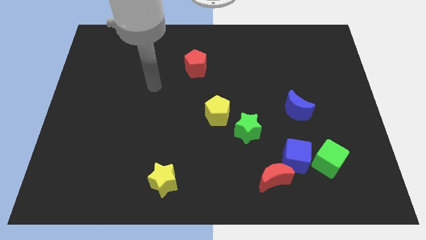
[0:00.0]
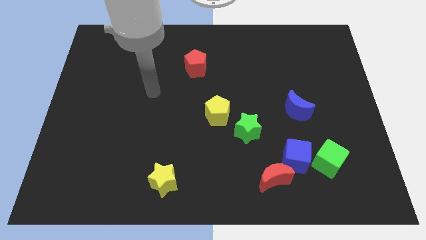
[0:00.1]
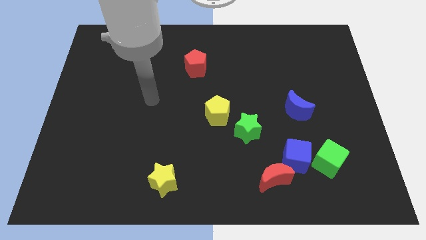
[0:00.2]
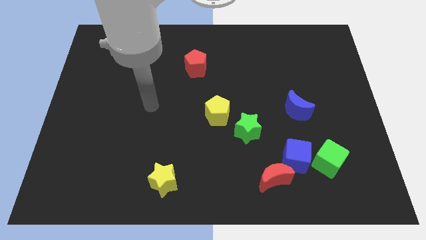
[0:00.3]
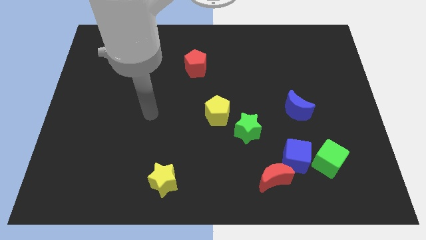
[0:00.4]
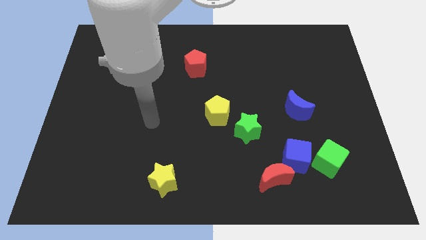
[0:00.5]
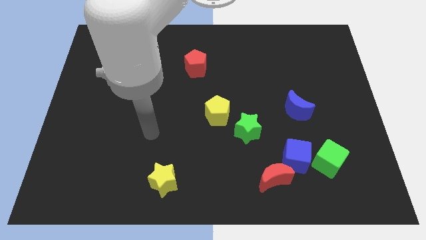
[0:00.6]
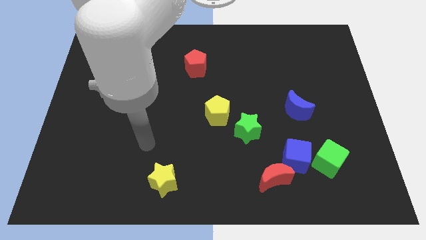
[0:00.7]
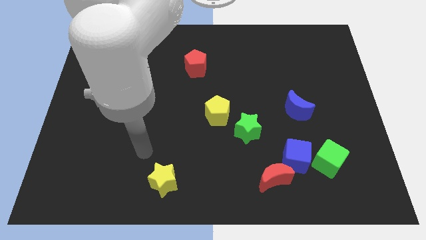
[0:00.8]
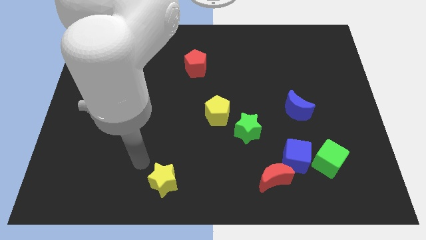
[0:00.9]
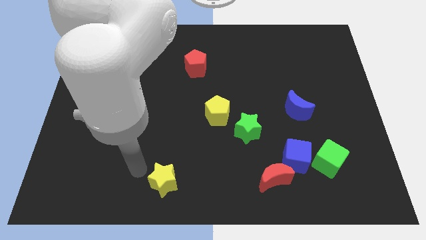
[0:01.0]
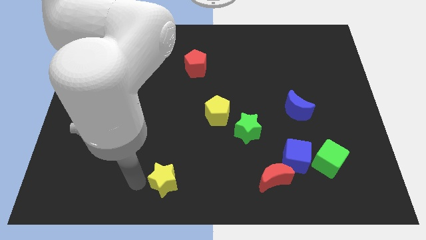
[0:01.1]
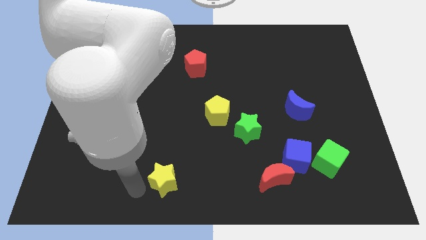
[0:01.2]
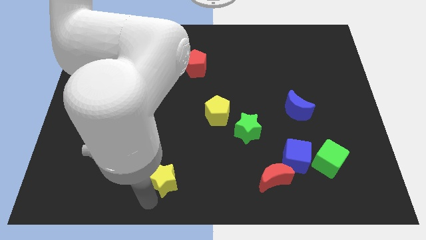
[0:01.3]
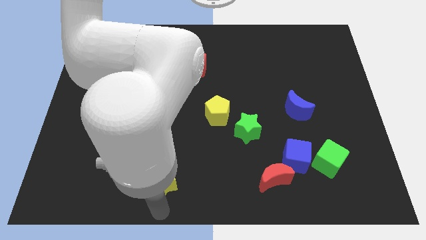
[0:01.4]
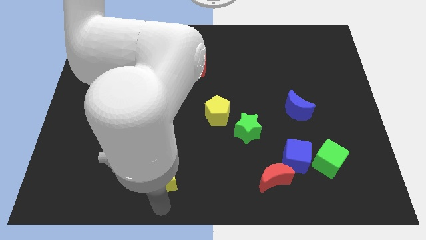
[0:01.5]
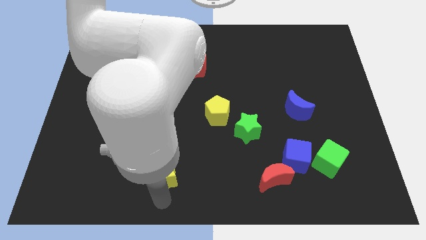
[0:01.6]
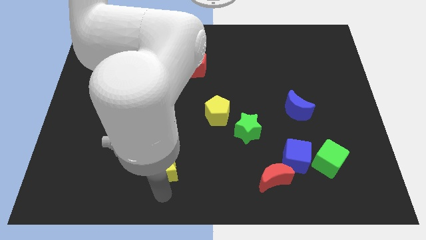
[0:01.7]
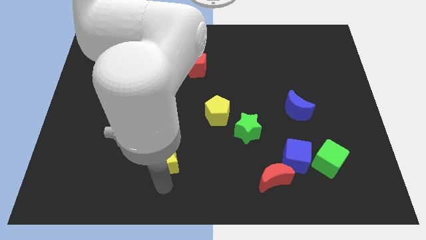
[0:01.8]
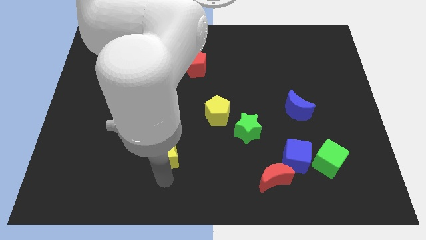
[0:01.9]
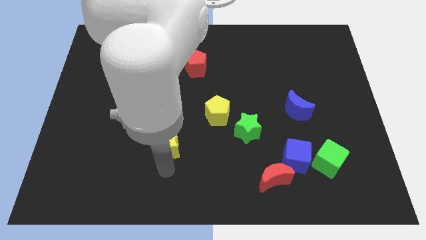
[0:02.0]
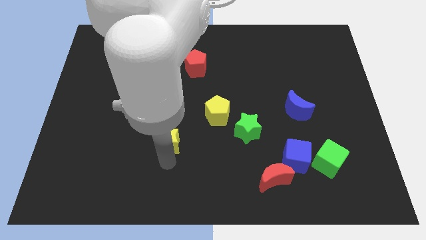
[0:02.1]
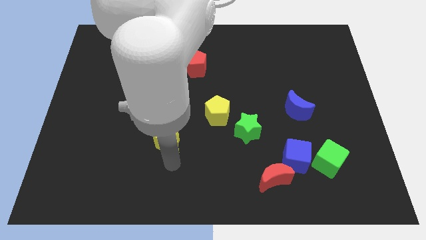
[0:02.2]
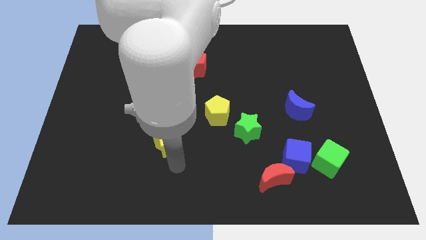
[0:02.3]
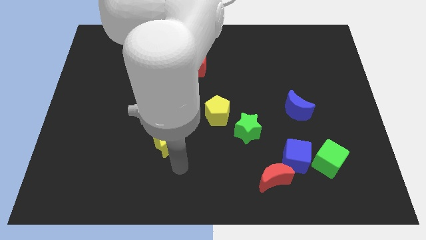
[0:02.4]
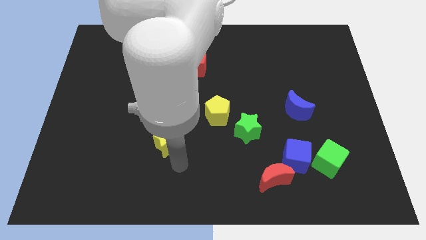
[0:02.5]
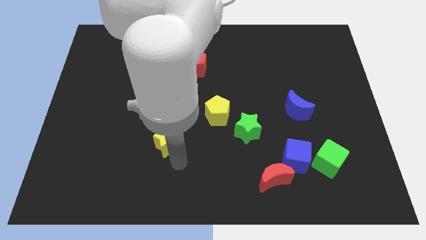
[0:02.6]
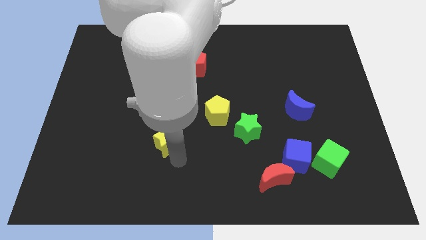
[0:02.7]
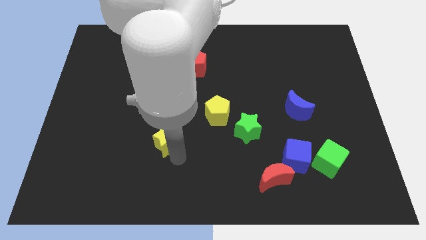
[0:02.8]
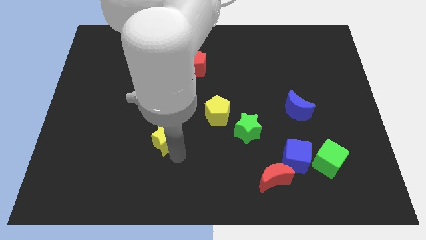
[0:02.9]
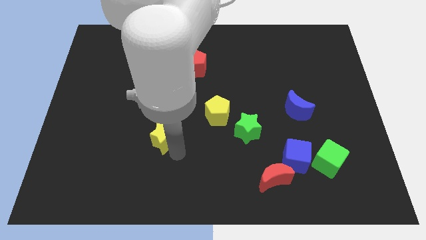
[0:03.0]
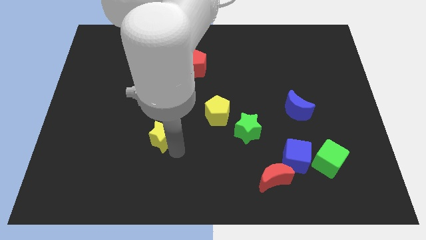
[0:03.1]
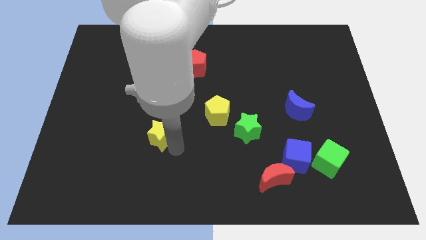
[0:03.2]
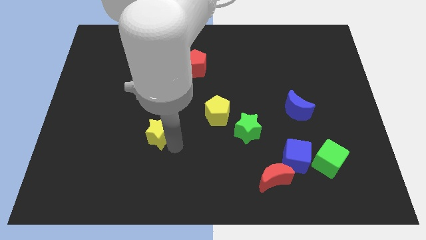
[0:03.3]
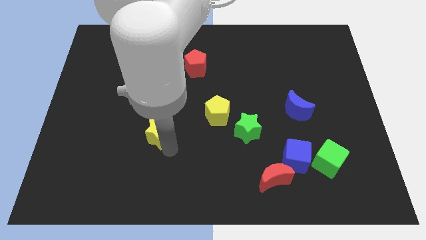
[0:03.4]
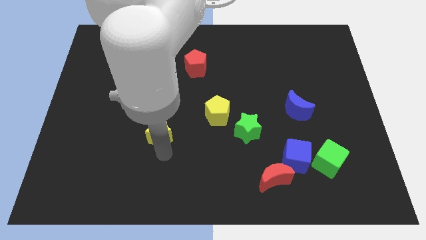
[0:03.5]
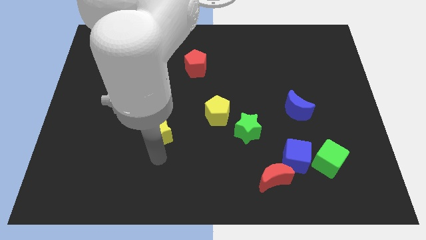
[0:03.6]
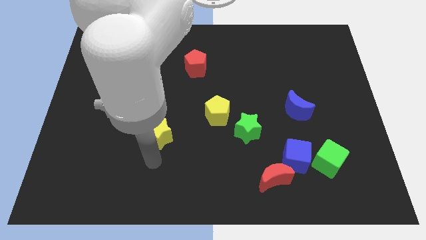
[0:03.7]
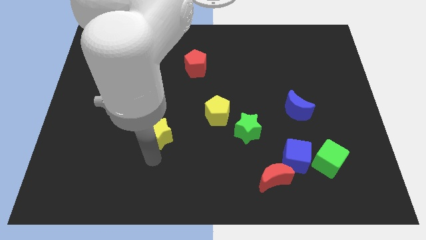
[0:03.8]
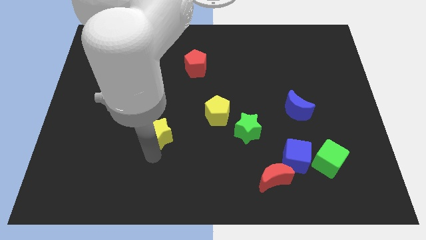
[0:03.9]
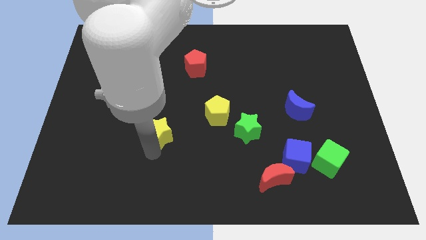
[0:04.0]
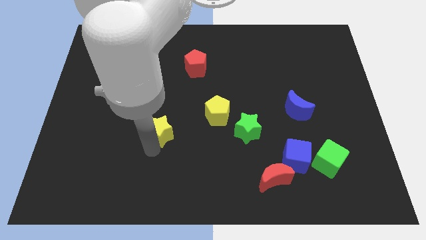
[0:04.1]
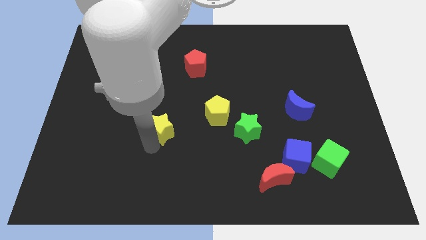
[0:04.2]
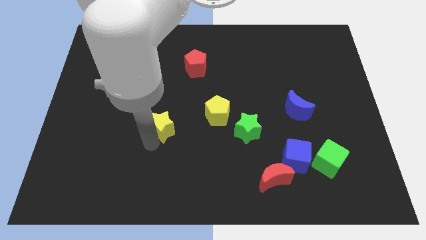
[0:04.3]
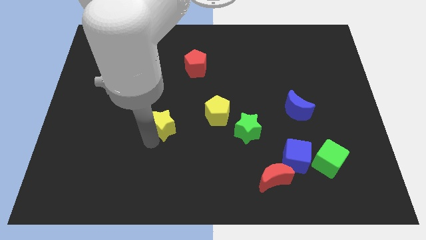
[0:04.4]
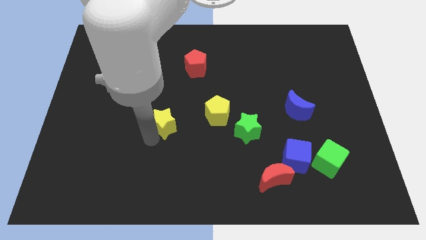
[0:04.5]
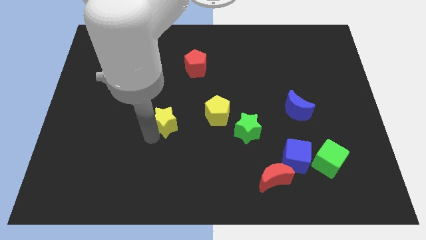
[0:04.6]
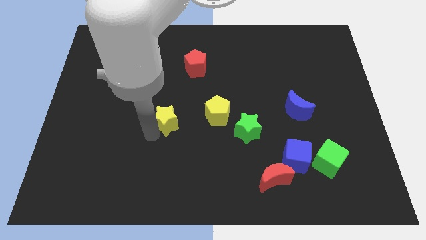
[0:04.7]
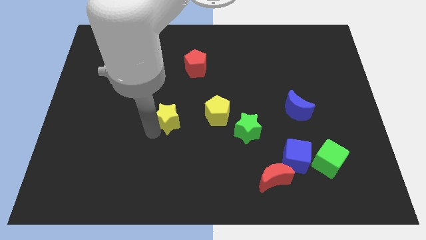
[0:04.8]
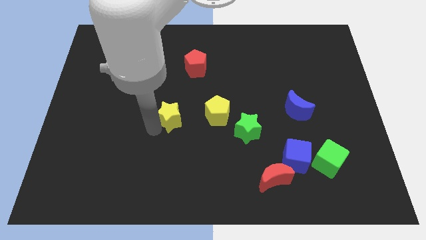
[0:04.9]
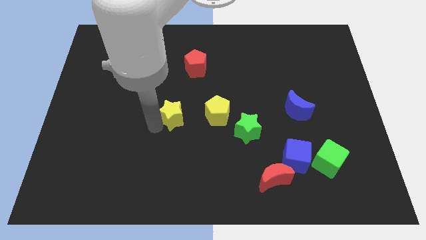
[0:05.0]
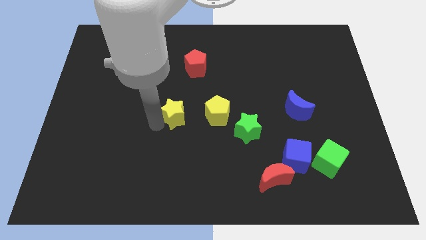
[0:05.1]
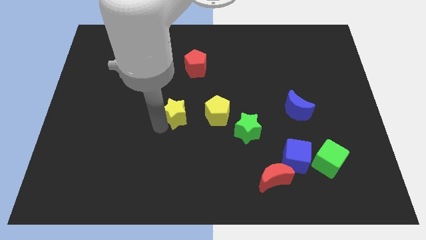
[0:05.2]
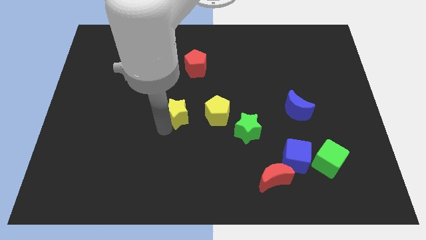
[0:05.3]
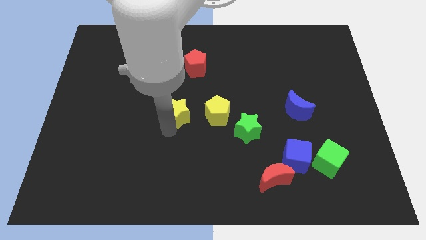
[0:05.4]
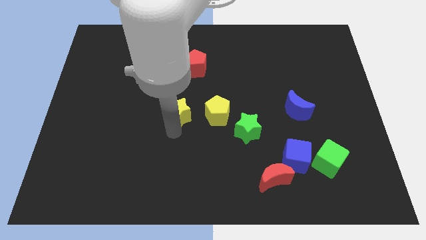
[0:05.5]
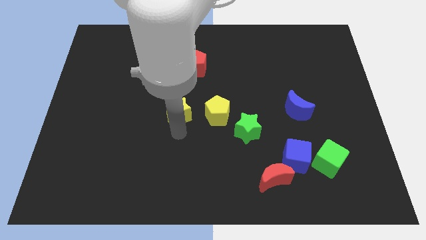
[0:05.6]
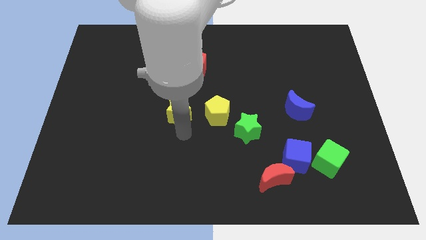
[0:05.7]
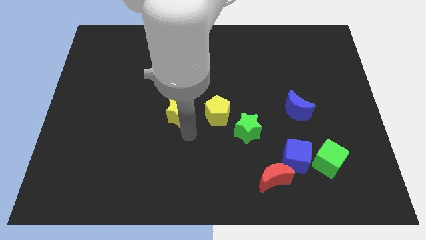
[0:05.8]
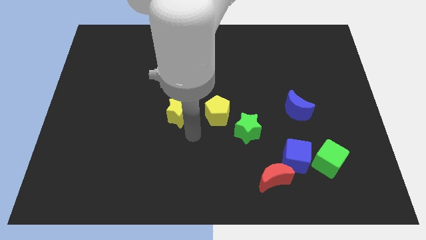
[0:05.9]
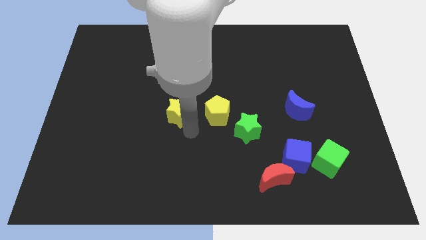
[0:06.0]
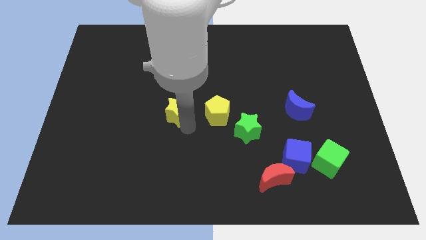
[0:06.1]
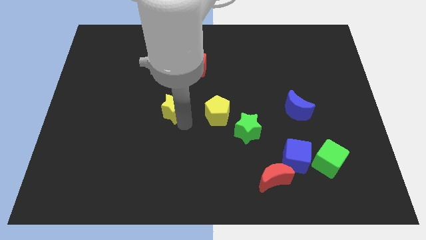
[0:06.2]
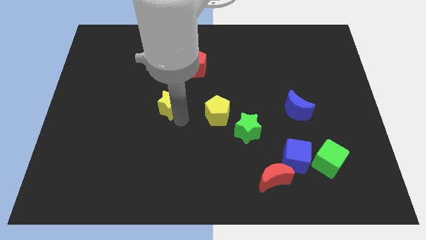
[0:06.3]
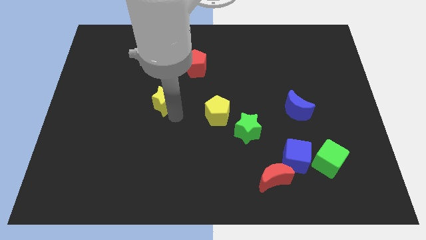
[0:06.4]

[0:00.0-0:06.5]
slide the yellow star upwards

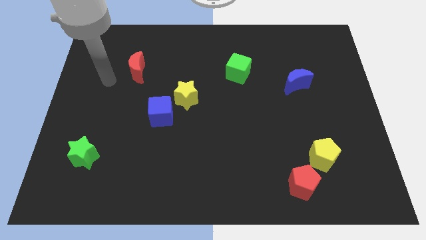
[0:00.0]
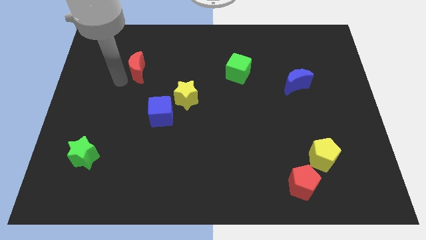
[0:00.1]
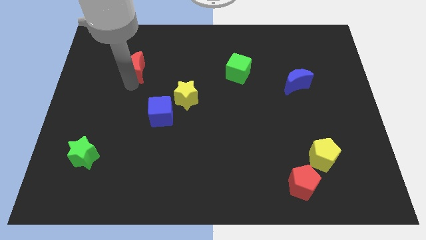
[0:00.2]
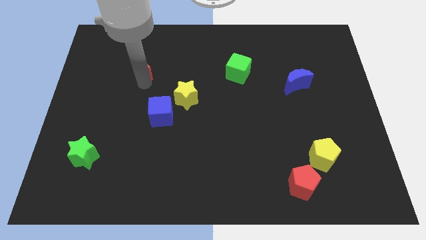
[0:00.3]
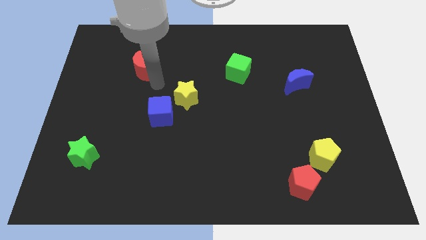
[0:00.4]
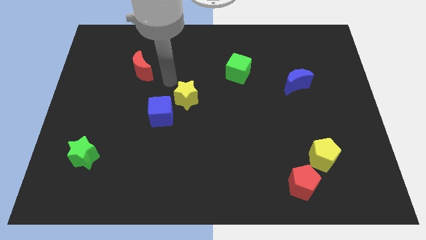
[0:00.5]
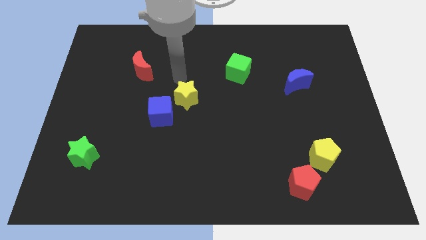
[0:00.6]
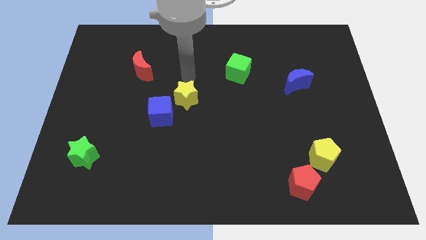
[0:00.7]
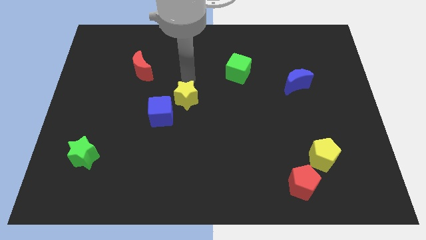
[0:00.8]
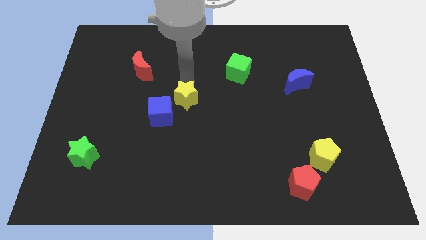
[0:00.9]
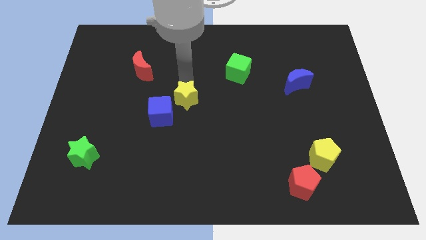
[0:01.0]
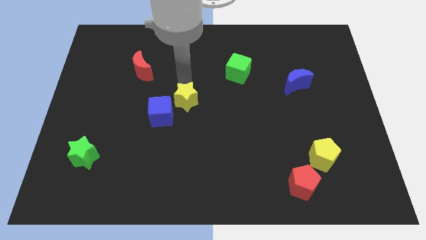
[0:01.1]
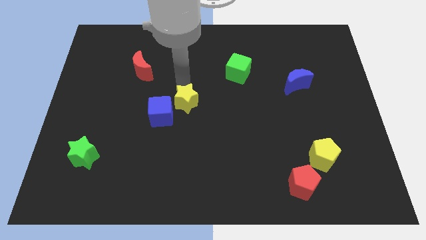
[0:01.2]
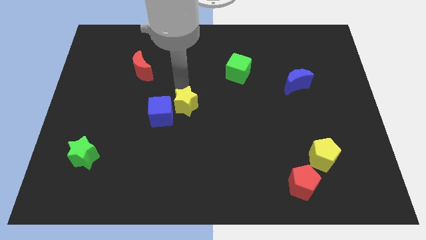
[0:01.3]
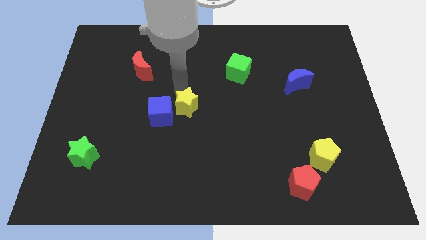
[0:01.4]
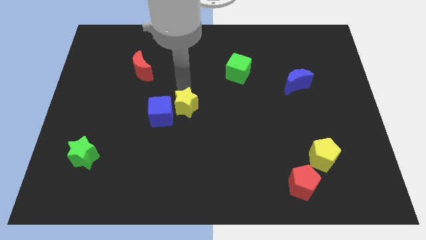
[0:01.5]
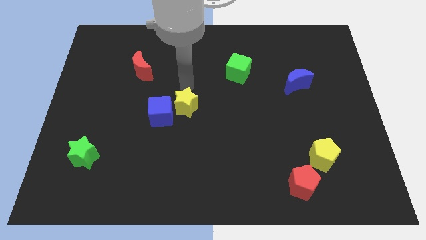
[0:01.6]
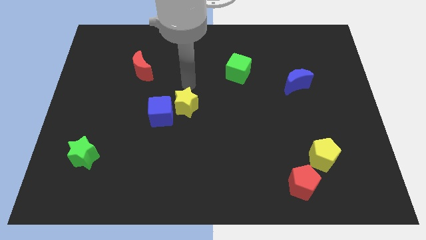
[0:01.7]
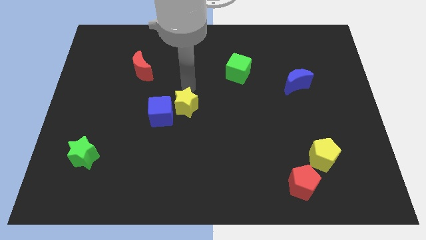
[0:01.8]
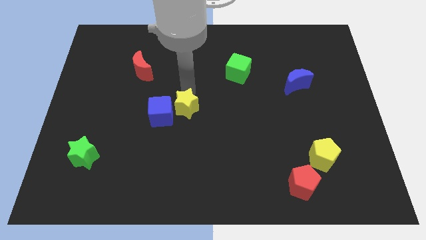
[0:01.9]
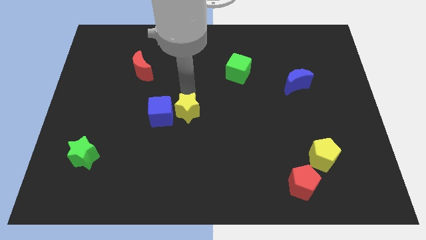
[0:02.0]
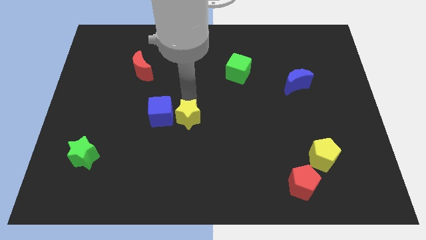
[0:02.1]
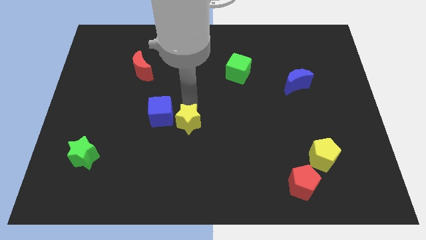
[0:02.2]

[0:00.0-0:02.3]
slightly slide the yellow star downwards
